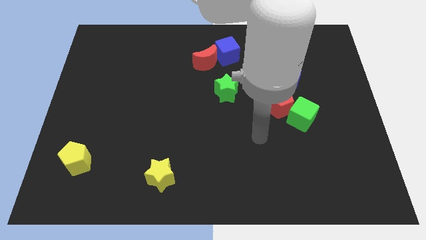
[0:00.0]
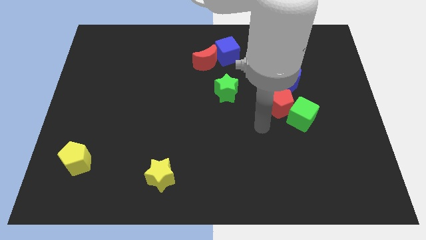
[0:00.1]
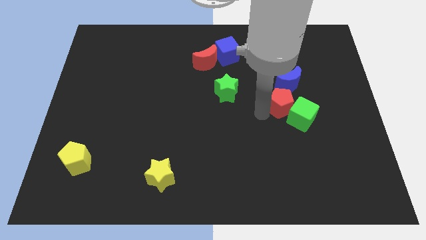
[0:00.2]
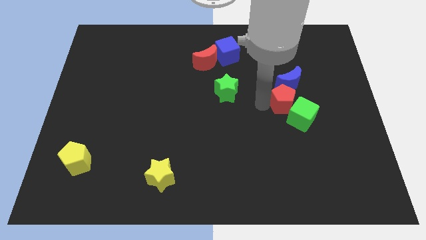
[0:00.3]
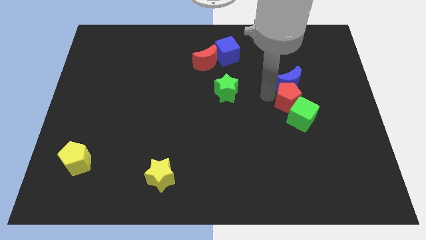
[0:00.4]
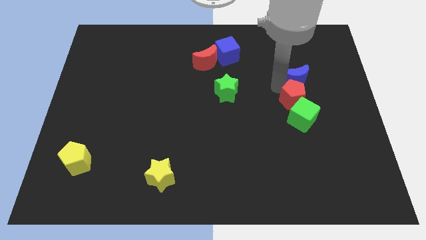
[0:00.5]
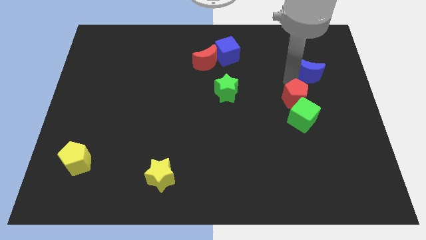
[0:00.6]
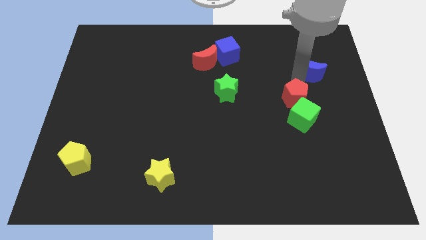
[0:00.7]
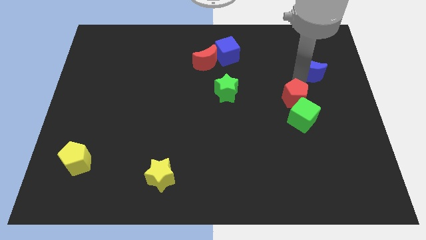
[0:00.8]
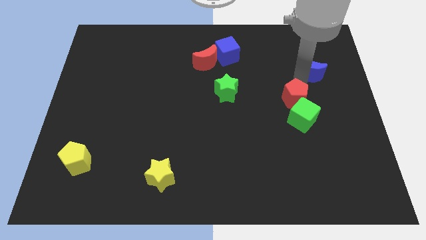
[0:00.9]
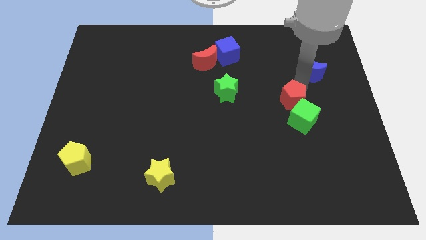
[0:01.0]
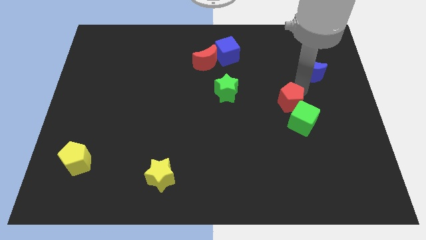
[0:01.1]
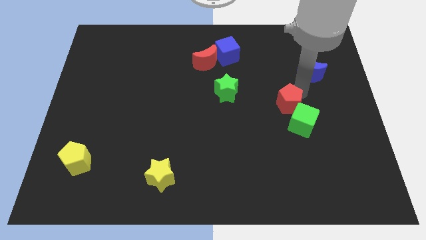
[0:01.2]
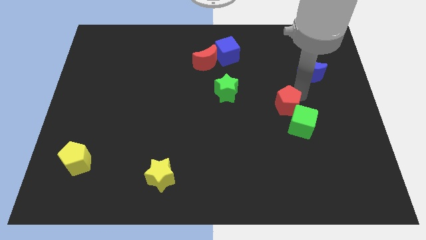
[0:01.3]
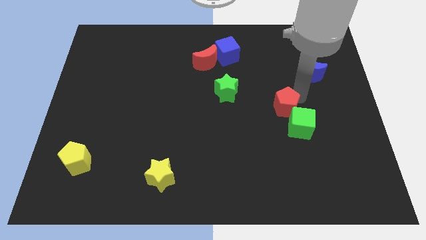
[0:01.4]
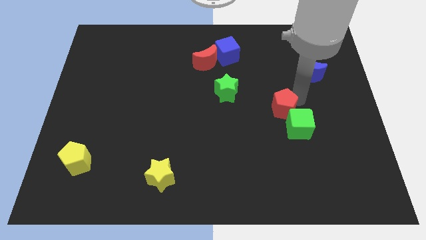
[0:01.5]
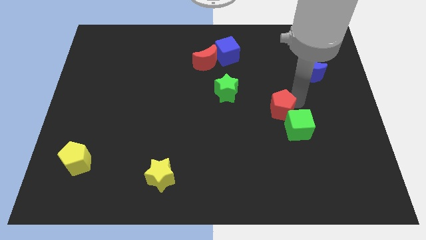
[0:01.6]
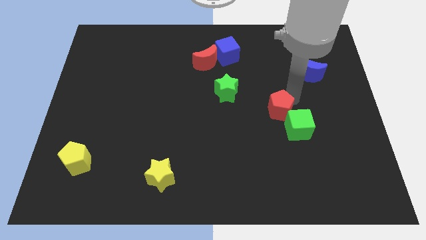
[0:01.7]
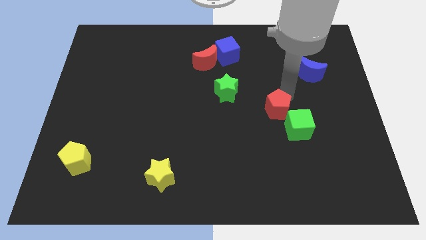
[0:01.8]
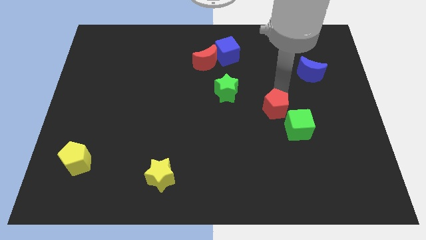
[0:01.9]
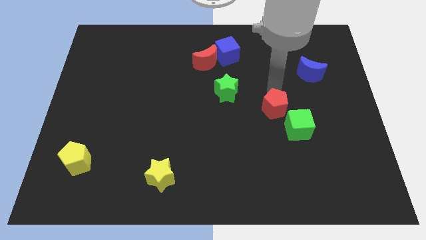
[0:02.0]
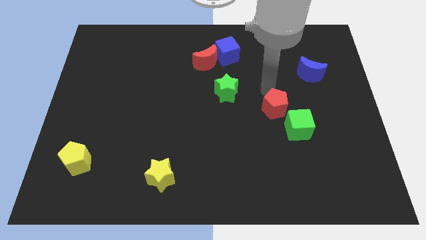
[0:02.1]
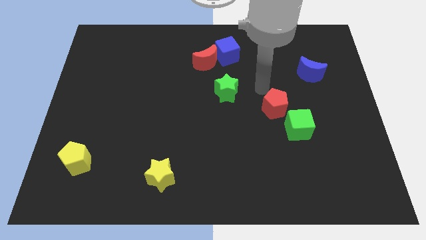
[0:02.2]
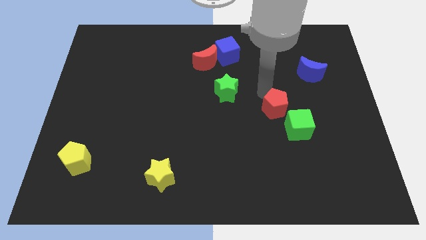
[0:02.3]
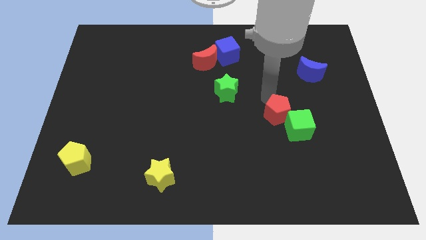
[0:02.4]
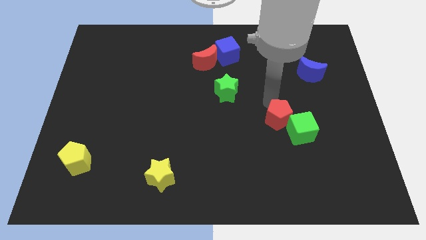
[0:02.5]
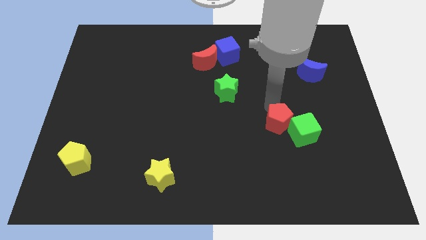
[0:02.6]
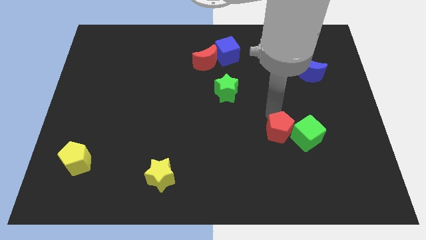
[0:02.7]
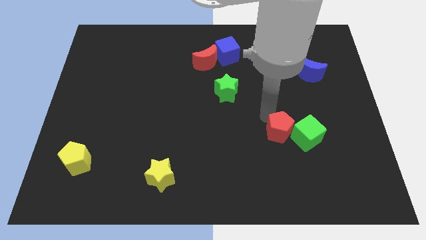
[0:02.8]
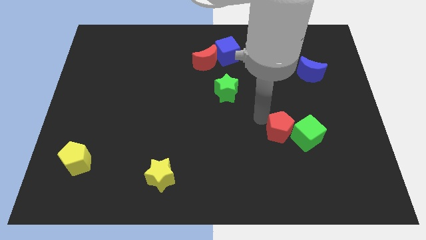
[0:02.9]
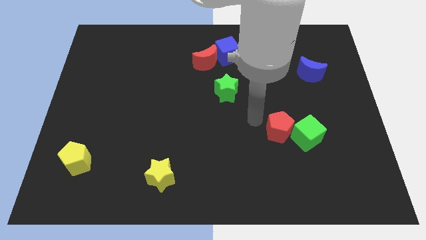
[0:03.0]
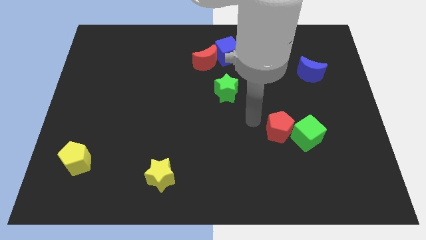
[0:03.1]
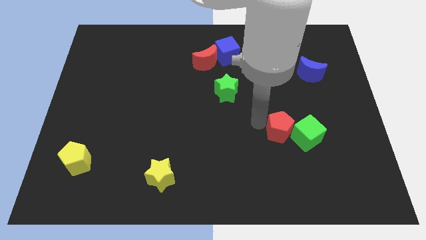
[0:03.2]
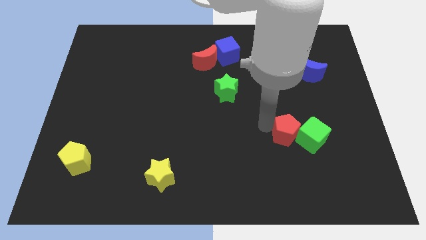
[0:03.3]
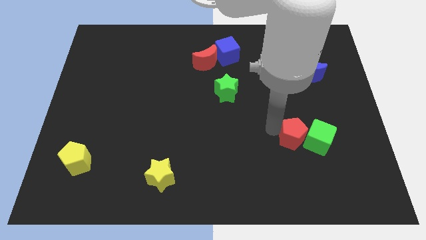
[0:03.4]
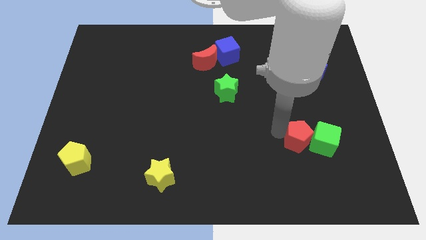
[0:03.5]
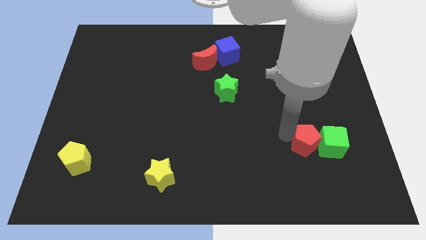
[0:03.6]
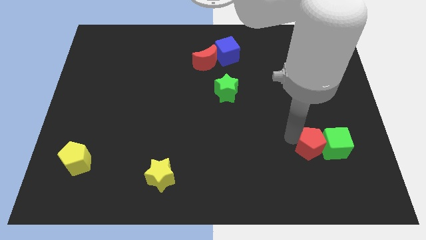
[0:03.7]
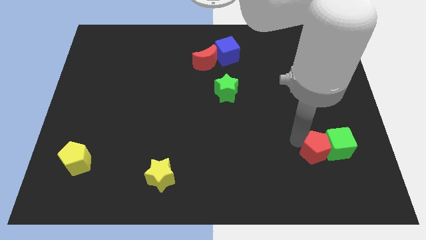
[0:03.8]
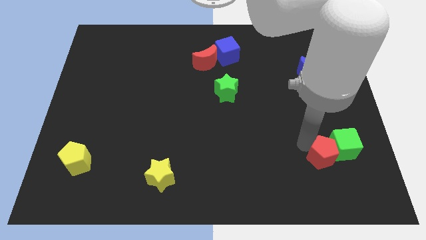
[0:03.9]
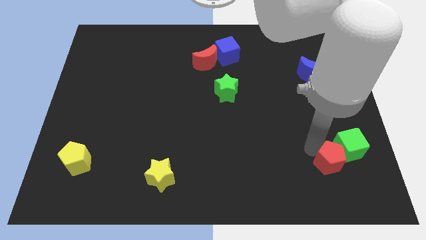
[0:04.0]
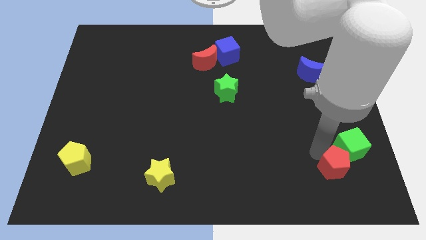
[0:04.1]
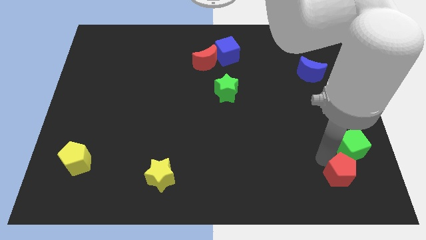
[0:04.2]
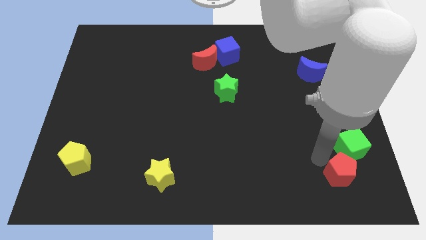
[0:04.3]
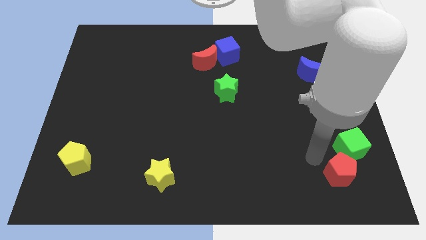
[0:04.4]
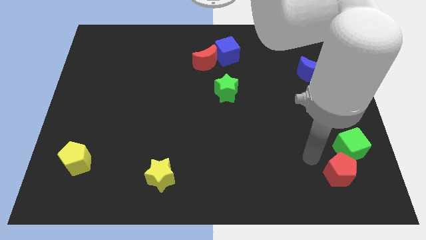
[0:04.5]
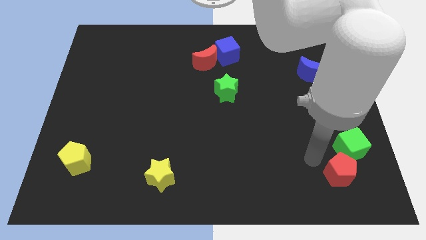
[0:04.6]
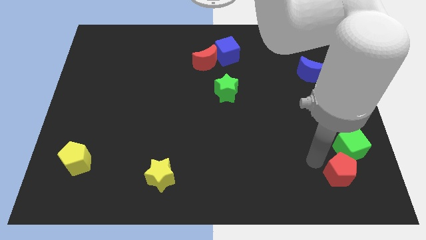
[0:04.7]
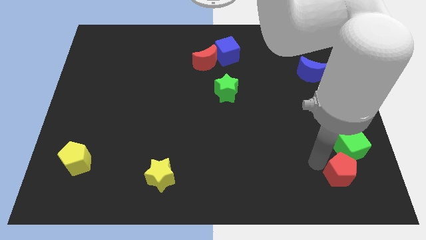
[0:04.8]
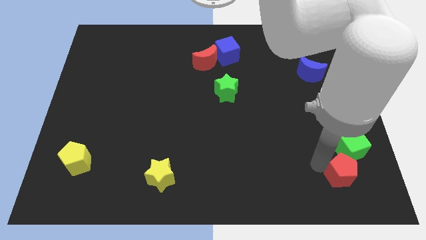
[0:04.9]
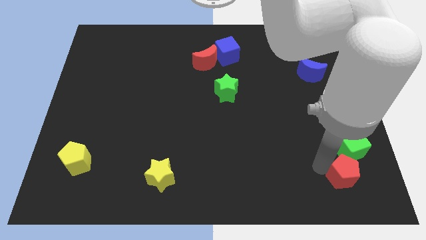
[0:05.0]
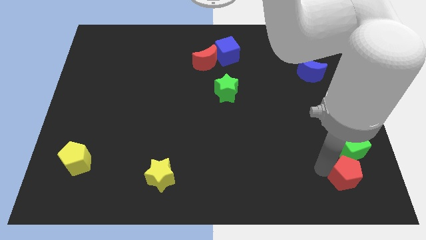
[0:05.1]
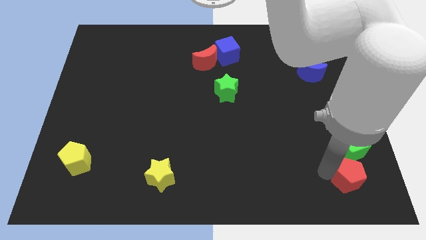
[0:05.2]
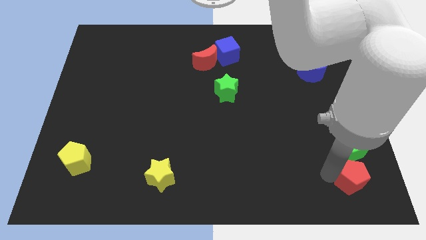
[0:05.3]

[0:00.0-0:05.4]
move the red pentagon to the lower right corner

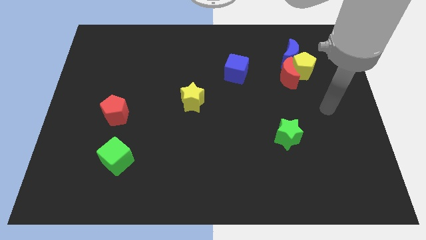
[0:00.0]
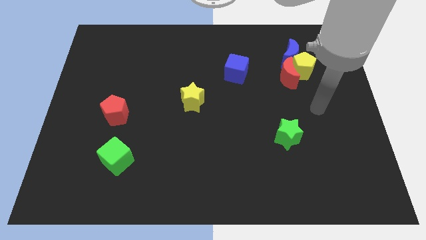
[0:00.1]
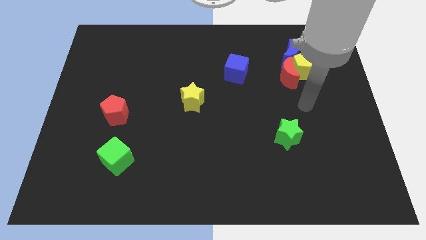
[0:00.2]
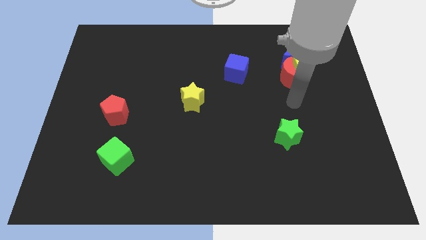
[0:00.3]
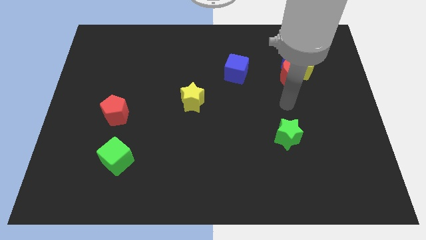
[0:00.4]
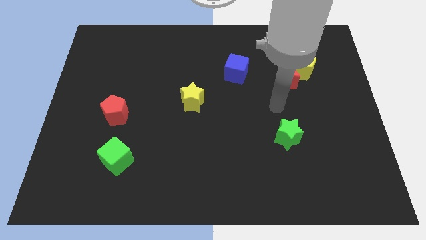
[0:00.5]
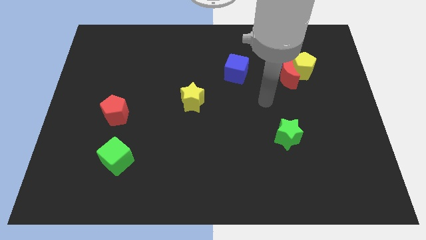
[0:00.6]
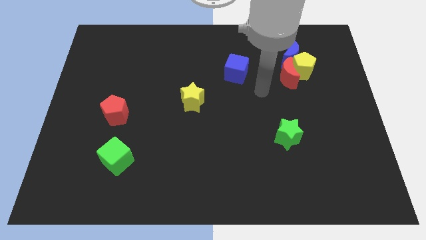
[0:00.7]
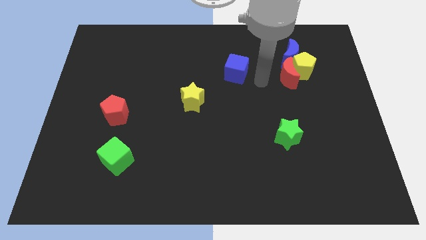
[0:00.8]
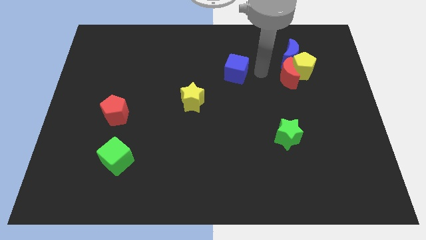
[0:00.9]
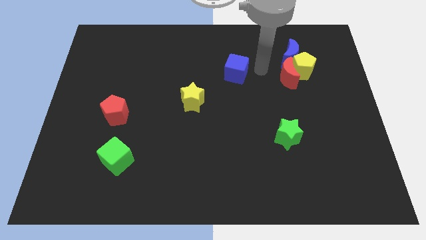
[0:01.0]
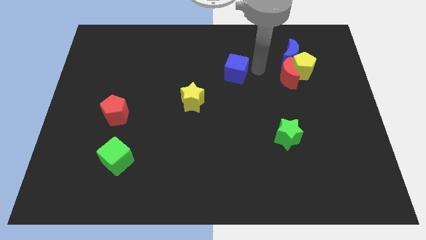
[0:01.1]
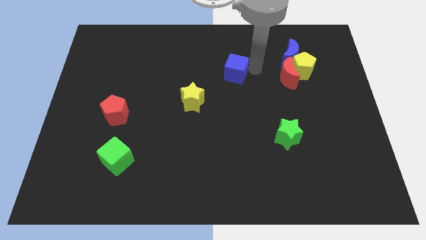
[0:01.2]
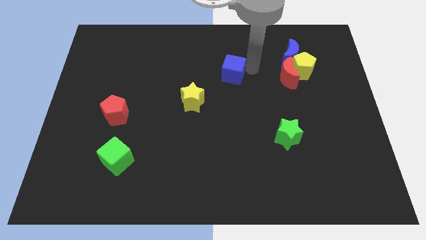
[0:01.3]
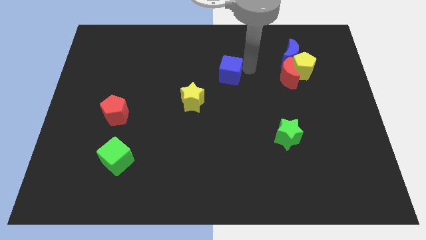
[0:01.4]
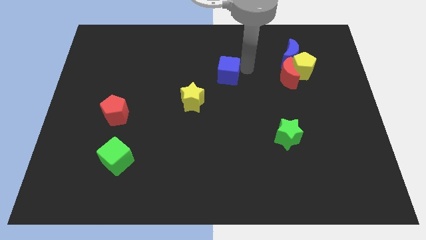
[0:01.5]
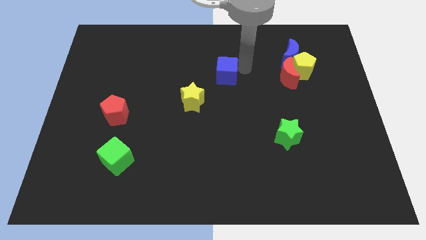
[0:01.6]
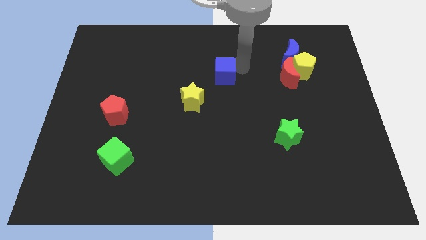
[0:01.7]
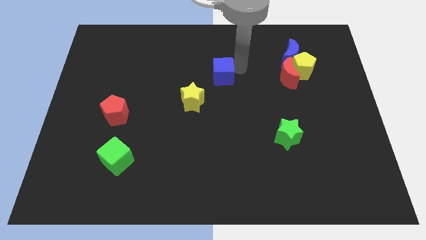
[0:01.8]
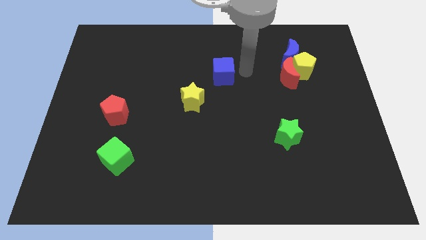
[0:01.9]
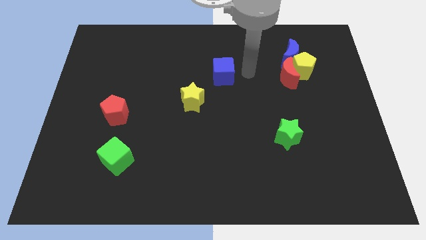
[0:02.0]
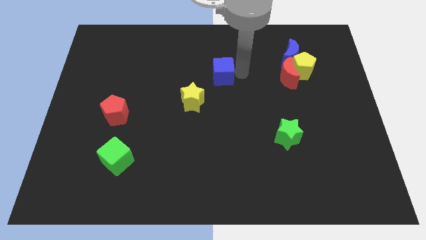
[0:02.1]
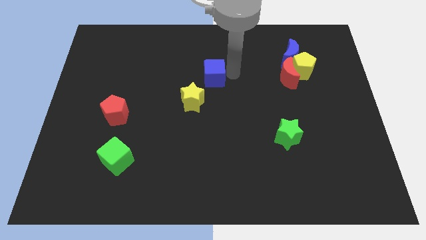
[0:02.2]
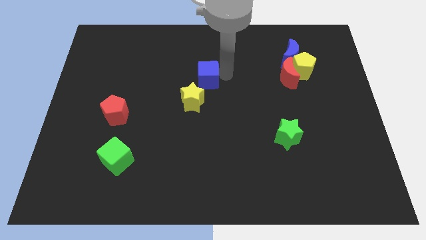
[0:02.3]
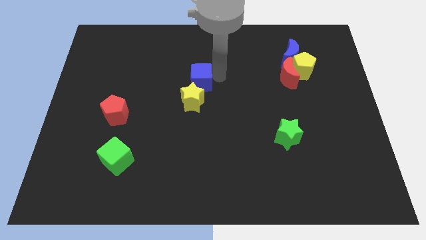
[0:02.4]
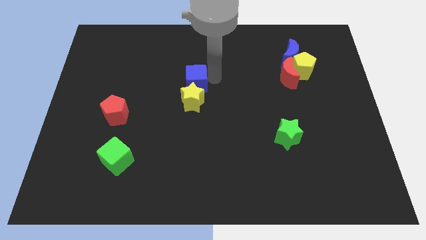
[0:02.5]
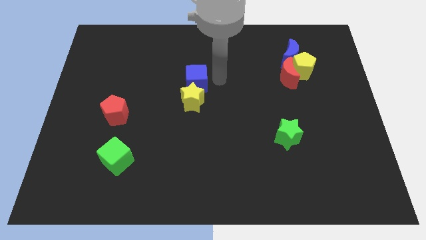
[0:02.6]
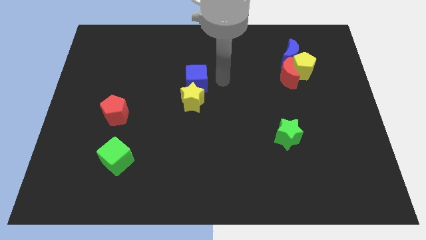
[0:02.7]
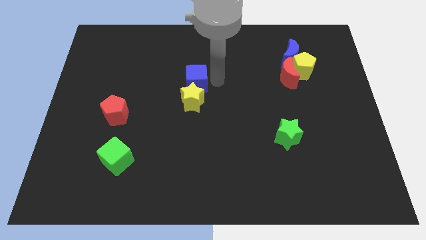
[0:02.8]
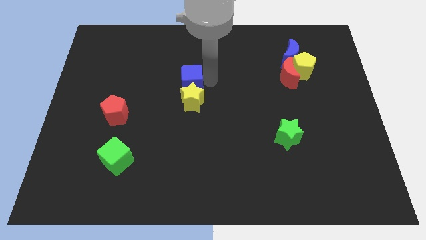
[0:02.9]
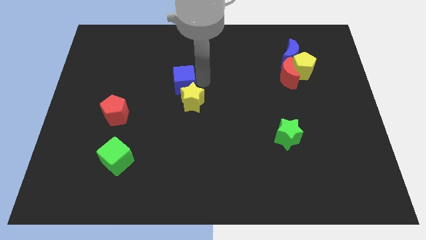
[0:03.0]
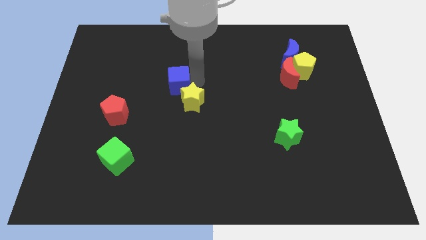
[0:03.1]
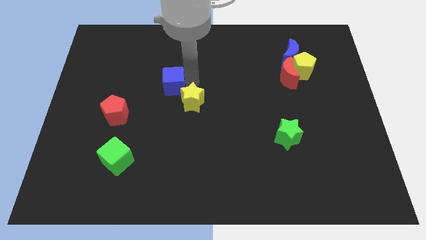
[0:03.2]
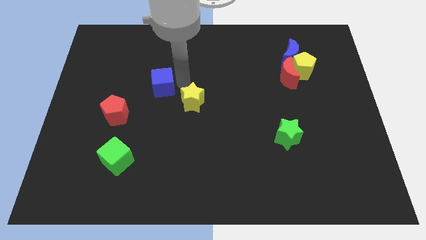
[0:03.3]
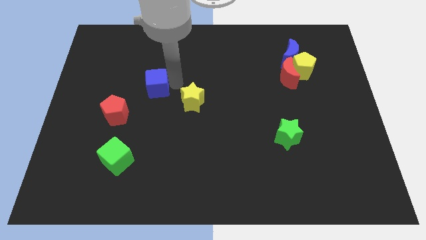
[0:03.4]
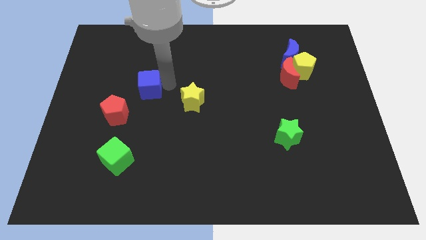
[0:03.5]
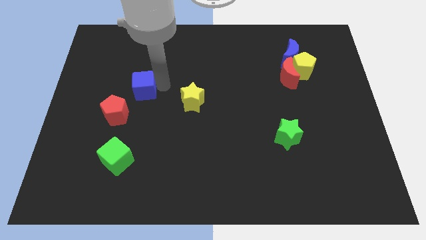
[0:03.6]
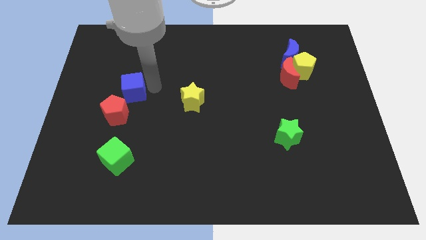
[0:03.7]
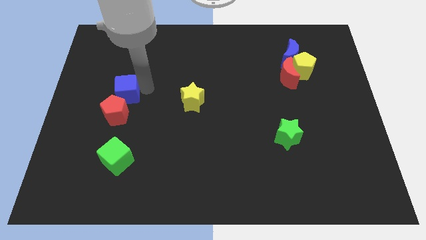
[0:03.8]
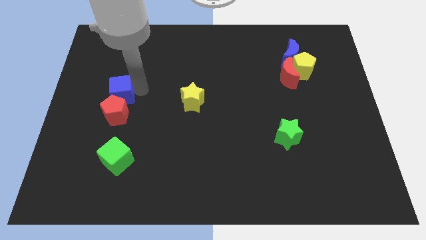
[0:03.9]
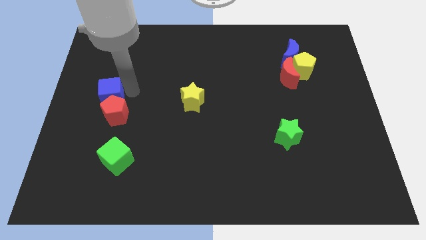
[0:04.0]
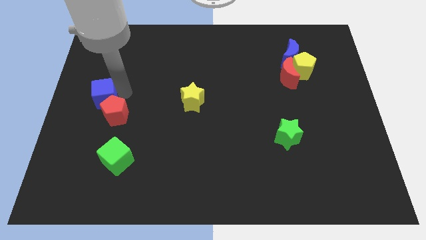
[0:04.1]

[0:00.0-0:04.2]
move the blue cube to the left side of the board
